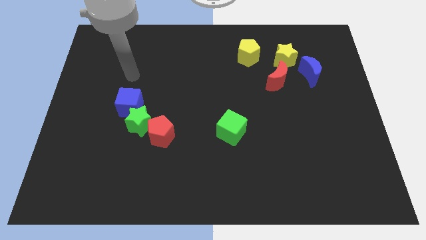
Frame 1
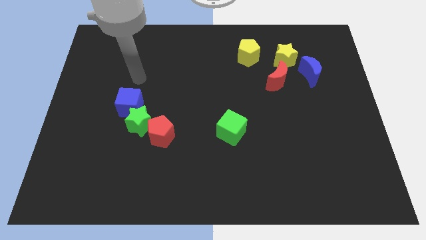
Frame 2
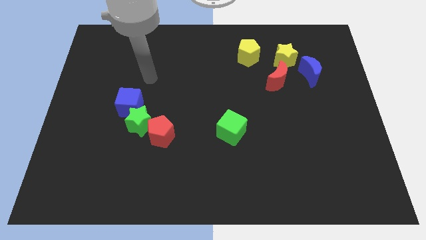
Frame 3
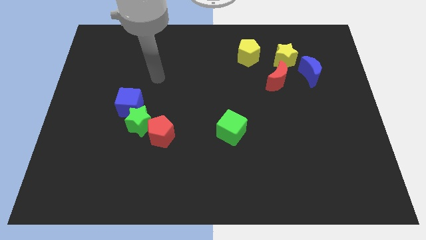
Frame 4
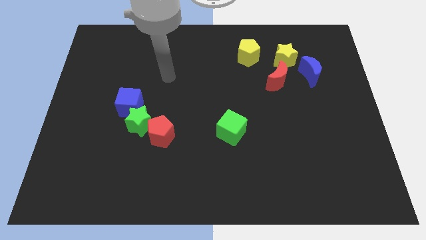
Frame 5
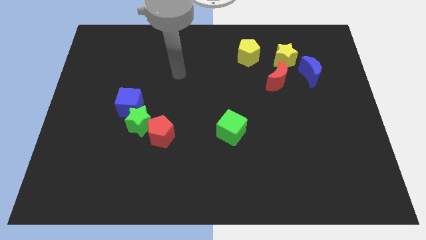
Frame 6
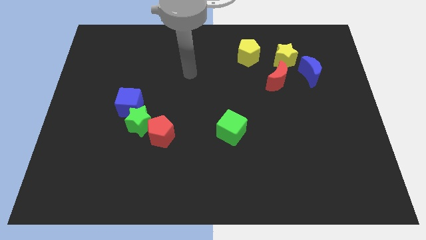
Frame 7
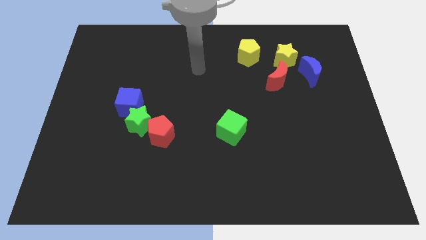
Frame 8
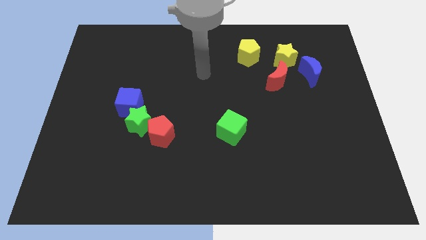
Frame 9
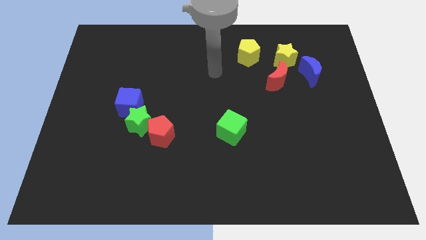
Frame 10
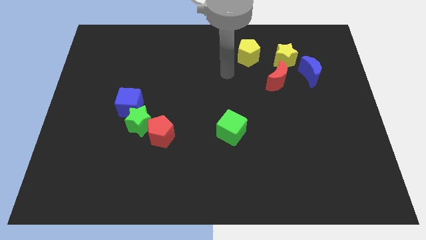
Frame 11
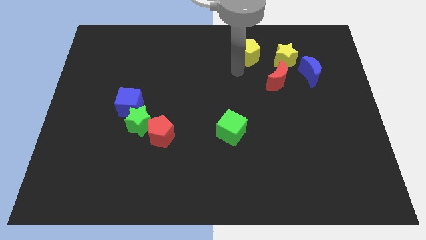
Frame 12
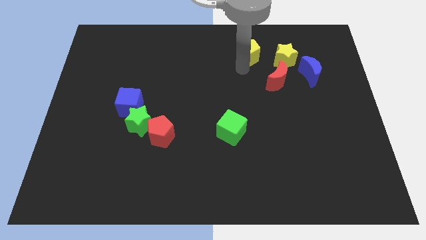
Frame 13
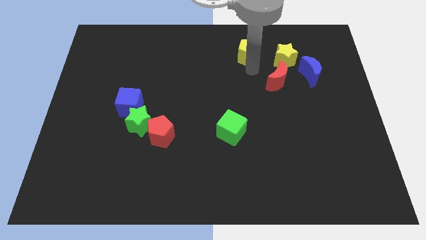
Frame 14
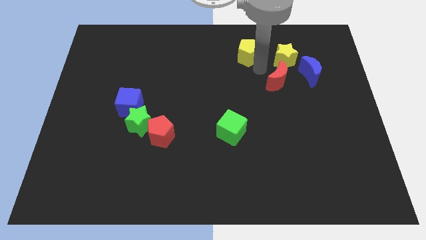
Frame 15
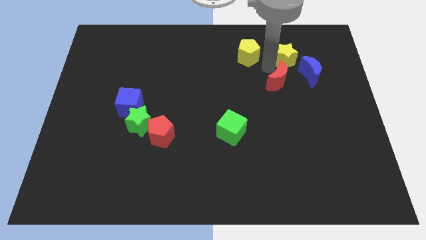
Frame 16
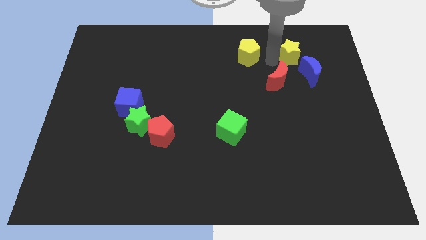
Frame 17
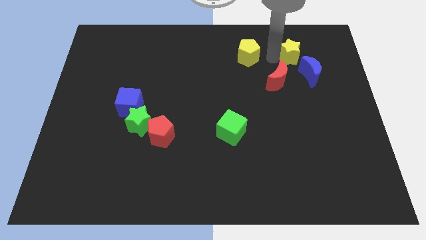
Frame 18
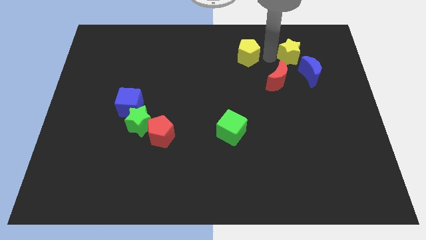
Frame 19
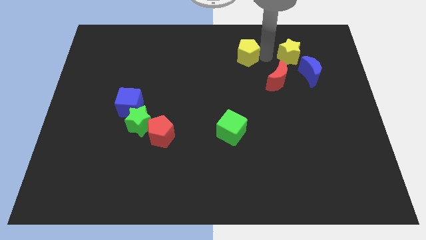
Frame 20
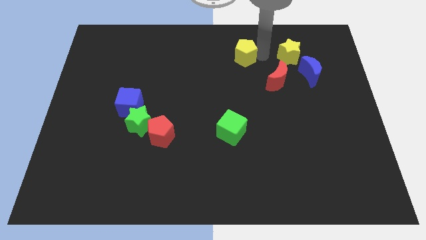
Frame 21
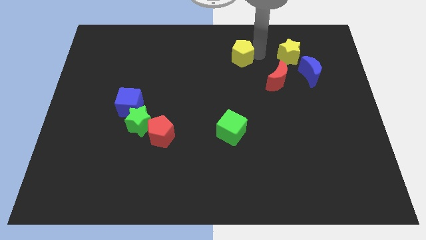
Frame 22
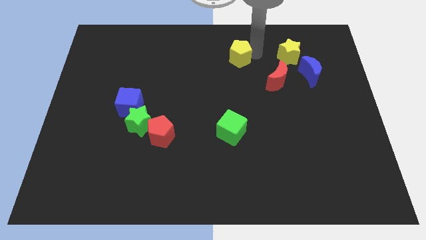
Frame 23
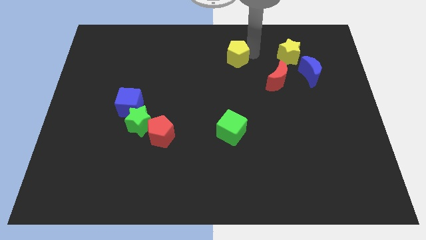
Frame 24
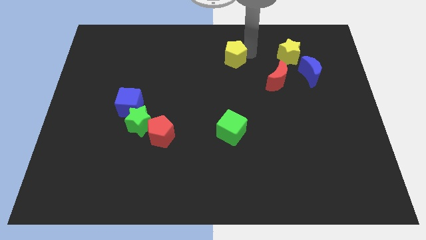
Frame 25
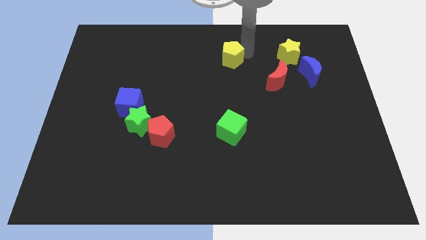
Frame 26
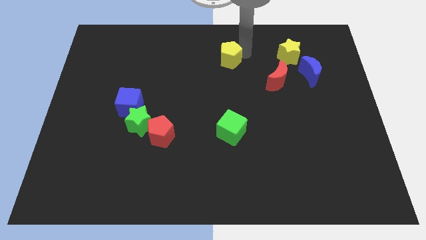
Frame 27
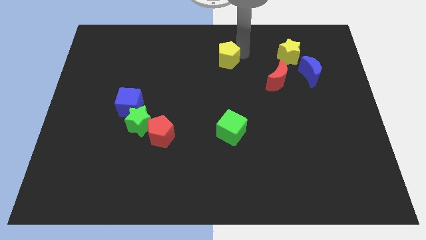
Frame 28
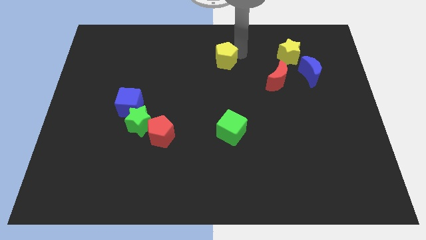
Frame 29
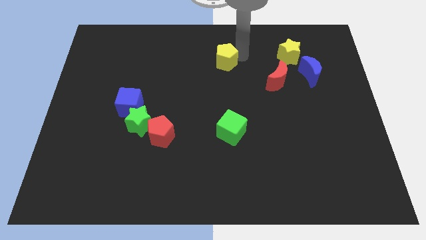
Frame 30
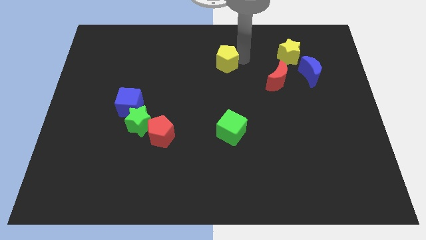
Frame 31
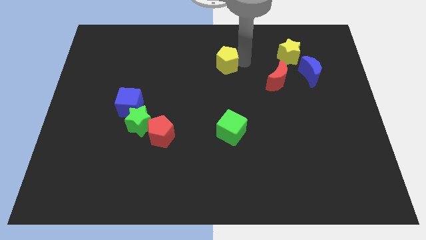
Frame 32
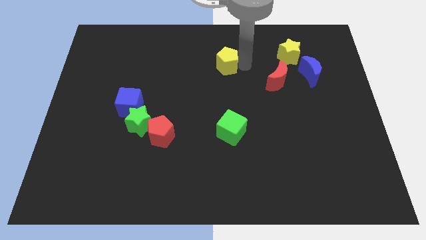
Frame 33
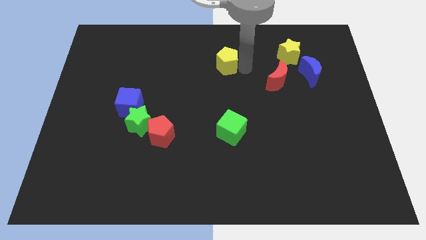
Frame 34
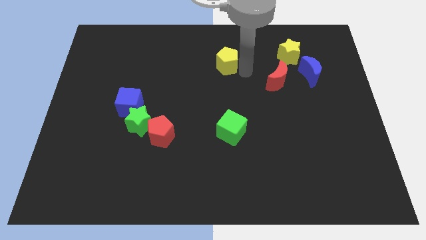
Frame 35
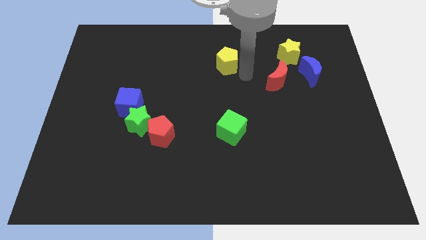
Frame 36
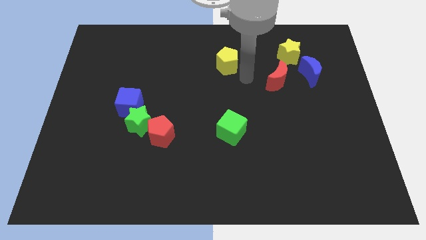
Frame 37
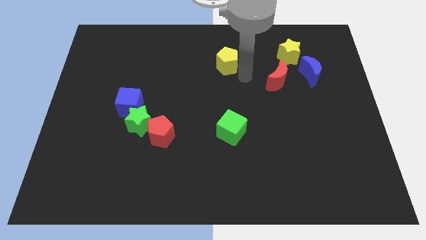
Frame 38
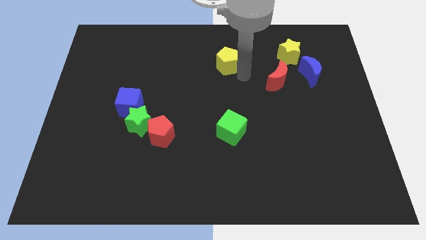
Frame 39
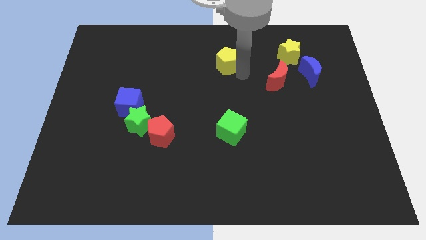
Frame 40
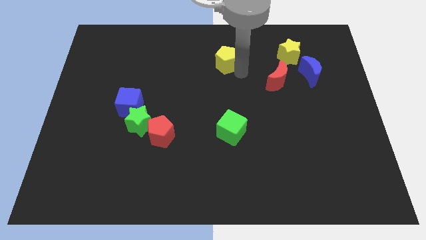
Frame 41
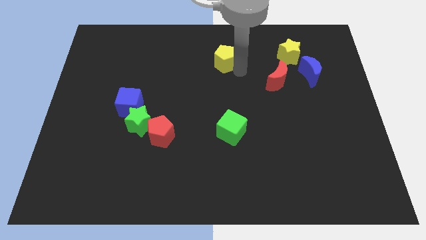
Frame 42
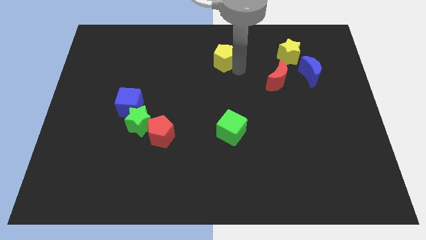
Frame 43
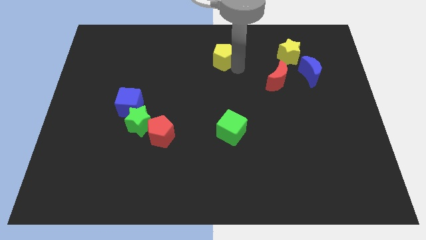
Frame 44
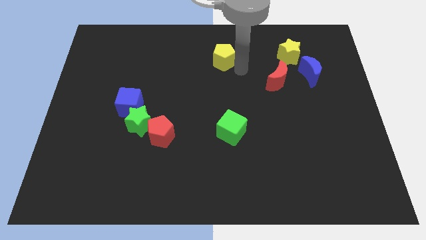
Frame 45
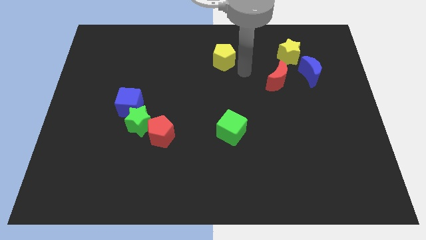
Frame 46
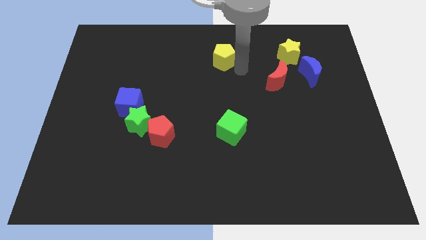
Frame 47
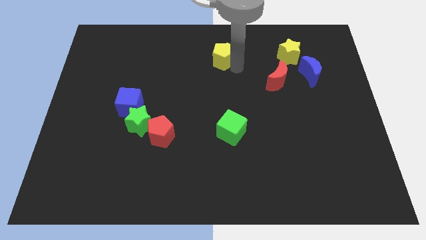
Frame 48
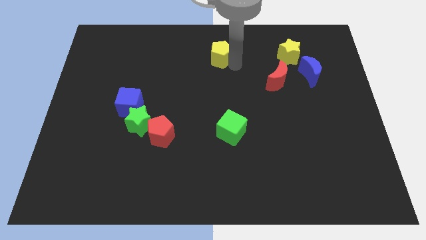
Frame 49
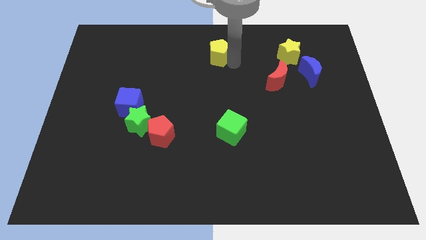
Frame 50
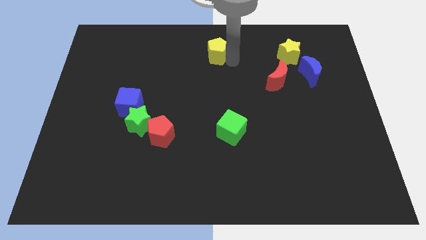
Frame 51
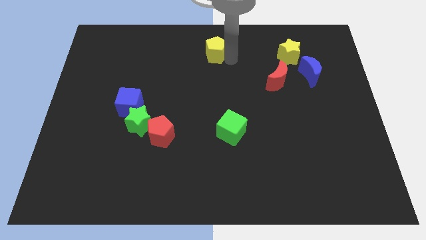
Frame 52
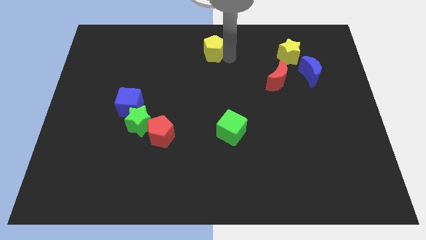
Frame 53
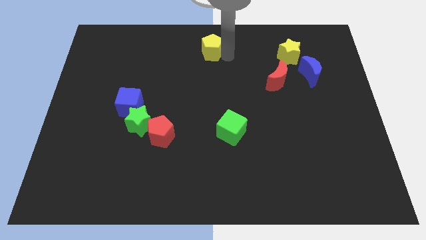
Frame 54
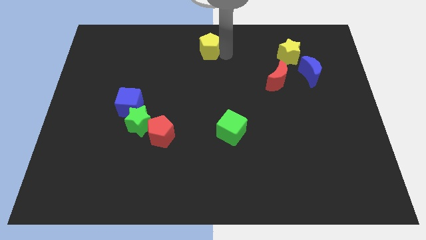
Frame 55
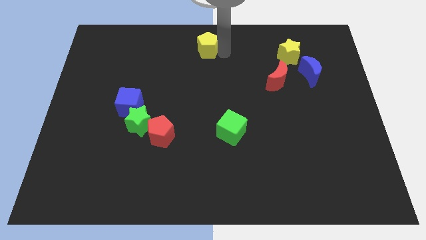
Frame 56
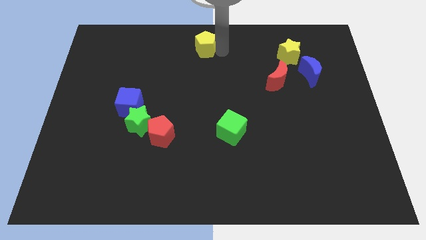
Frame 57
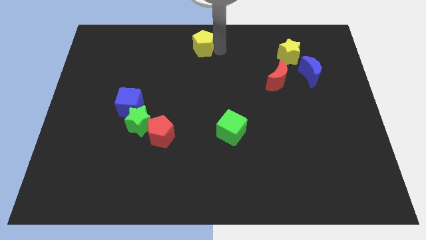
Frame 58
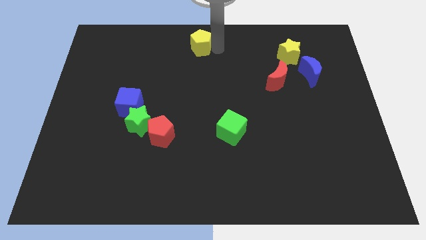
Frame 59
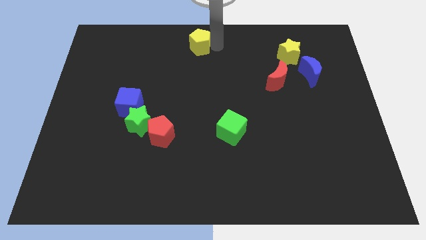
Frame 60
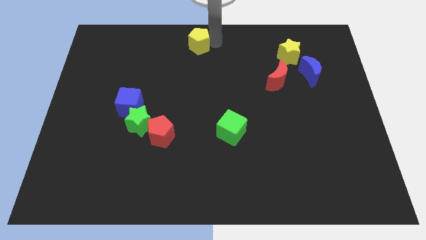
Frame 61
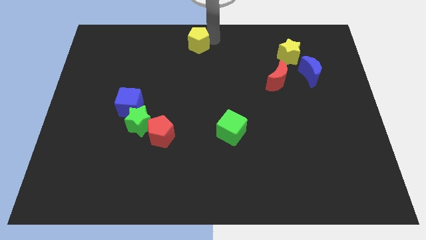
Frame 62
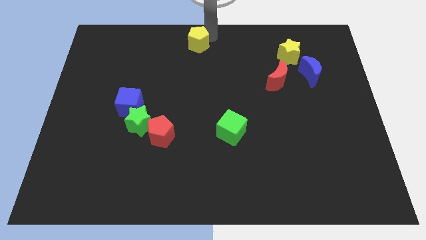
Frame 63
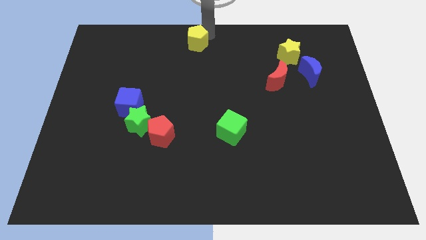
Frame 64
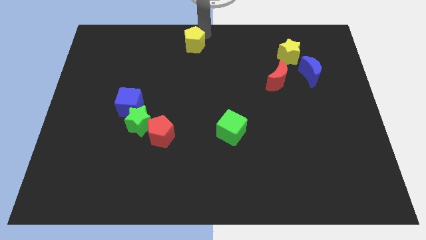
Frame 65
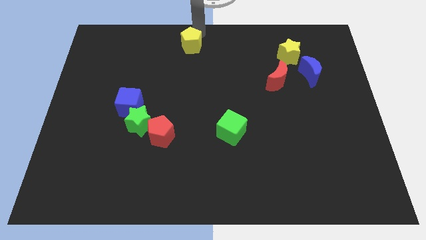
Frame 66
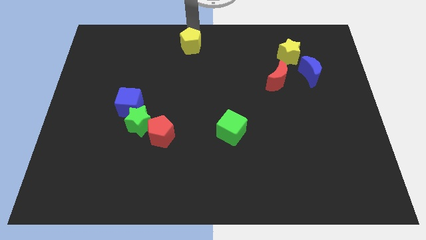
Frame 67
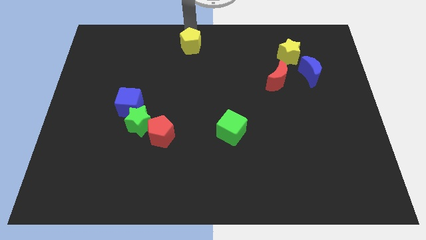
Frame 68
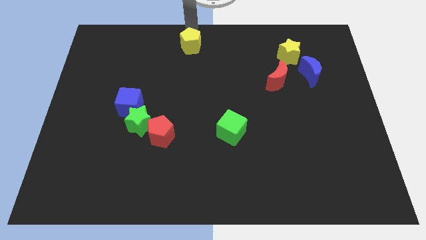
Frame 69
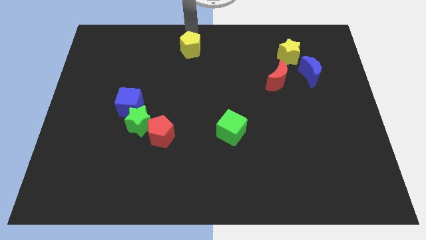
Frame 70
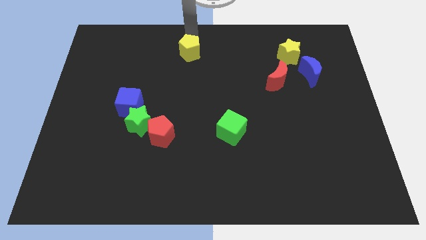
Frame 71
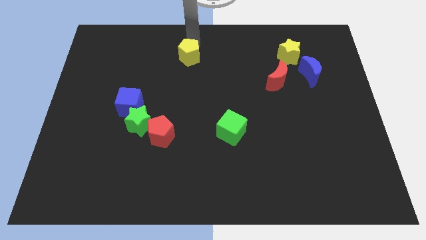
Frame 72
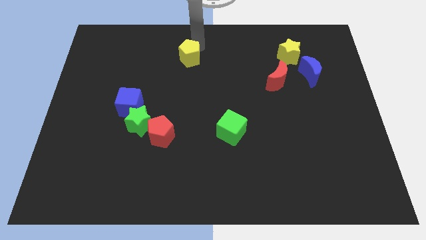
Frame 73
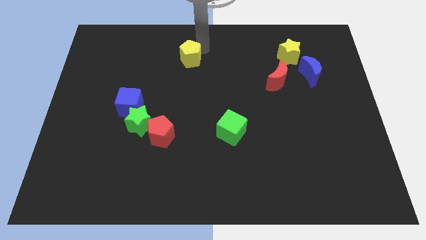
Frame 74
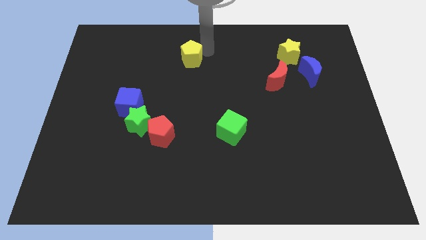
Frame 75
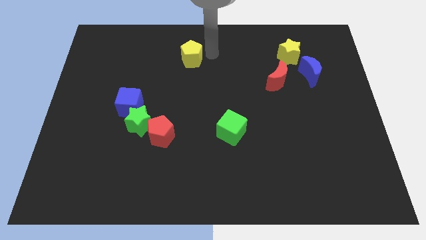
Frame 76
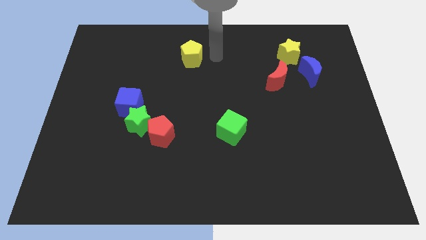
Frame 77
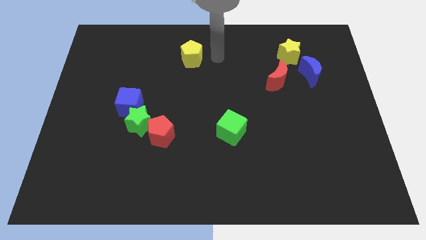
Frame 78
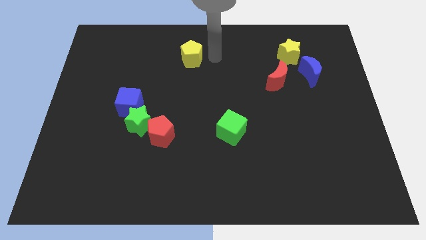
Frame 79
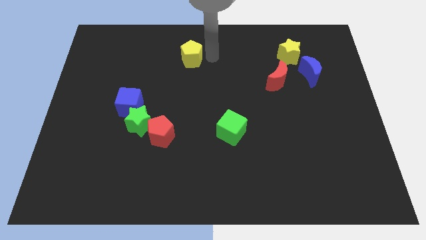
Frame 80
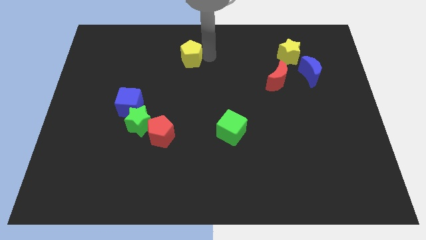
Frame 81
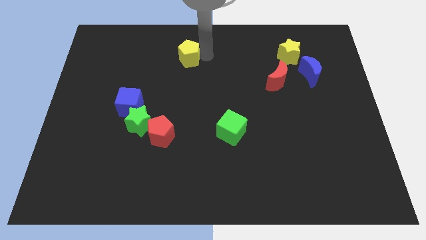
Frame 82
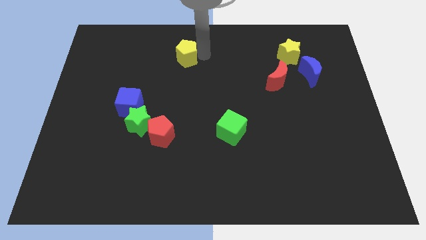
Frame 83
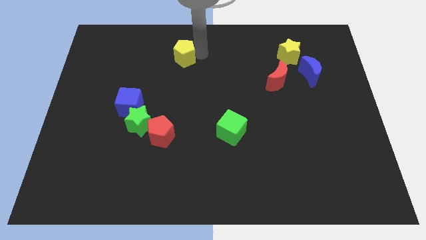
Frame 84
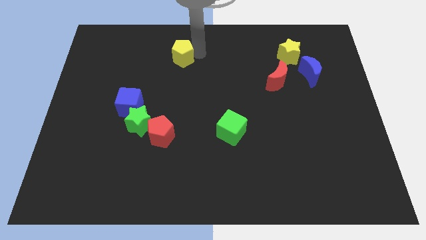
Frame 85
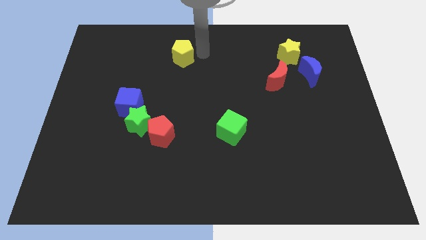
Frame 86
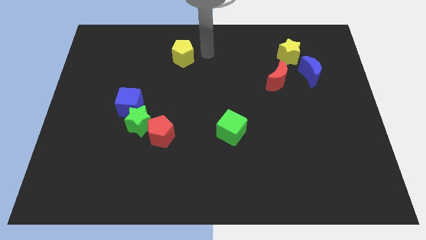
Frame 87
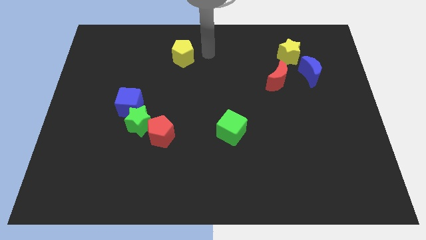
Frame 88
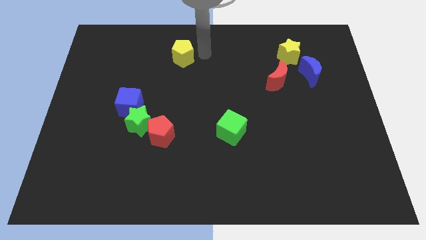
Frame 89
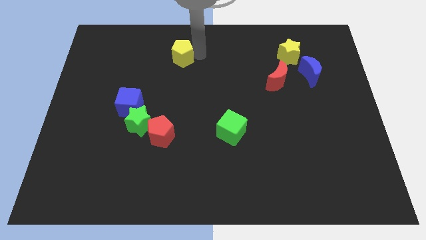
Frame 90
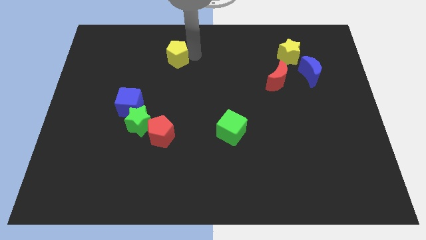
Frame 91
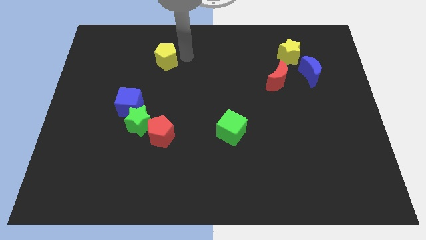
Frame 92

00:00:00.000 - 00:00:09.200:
move the yellow pentagon left
